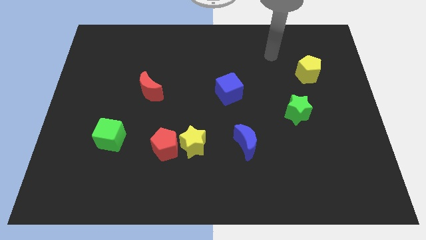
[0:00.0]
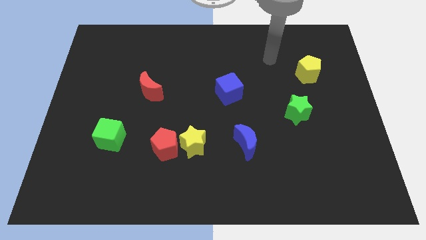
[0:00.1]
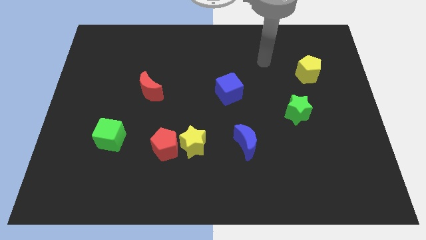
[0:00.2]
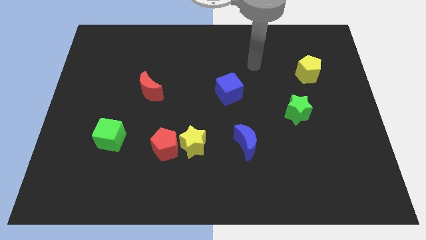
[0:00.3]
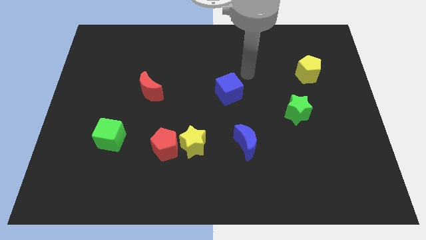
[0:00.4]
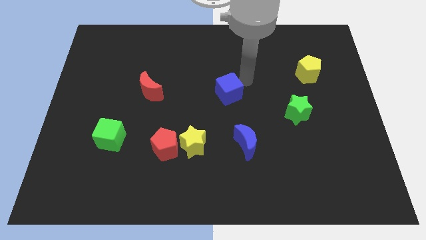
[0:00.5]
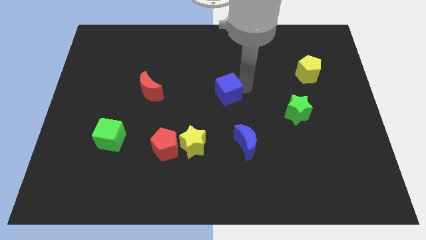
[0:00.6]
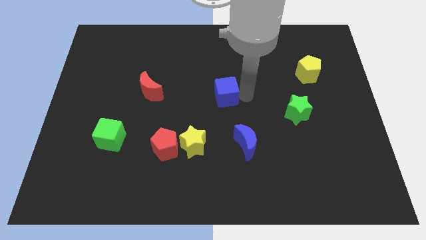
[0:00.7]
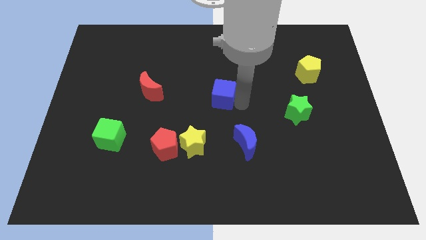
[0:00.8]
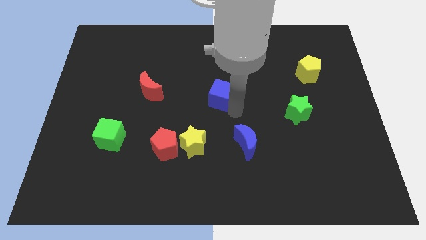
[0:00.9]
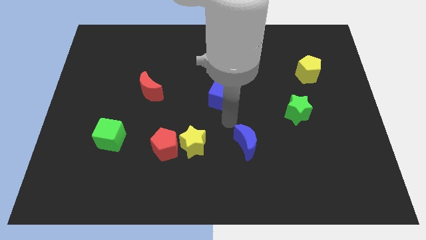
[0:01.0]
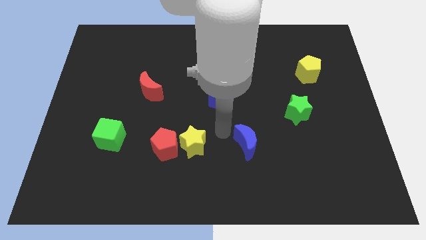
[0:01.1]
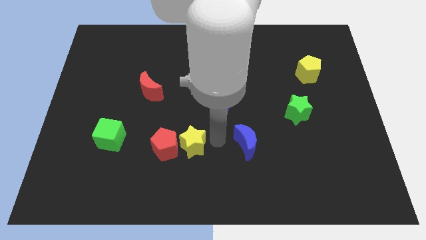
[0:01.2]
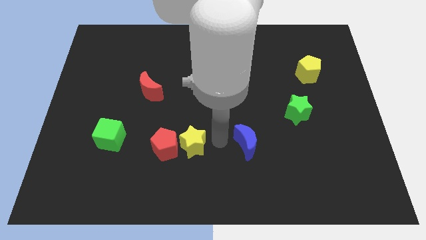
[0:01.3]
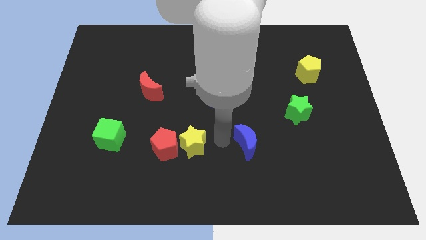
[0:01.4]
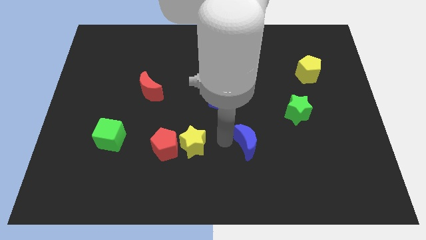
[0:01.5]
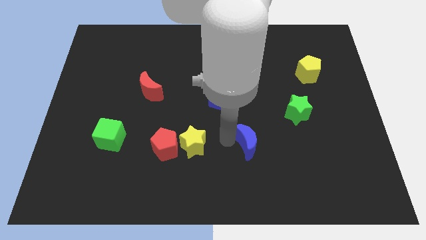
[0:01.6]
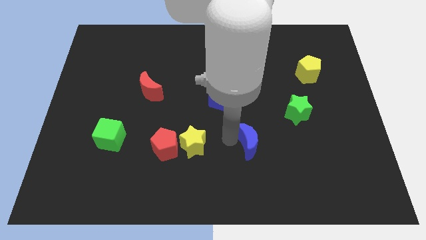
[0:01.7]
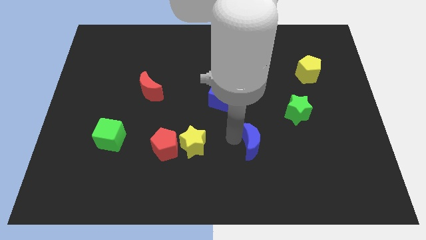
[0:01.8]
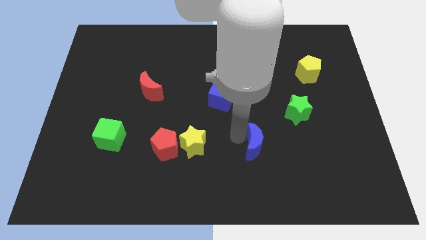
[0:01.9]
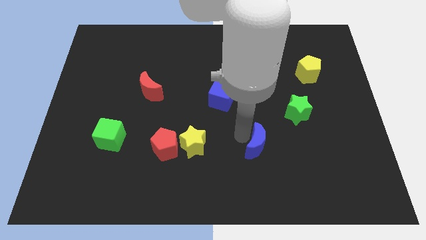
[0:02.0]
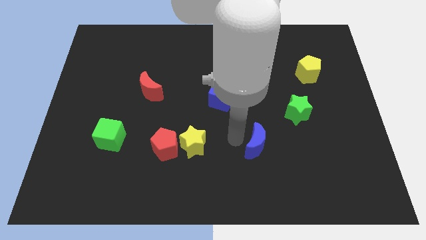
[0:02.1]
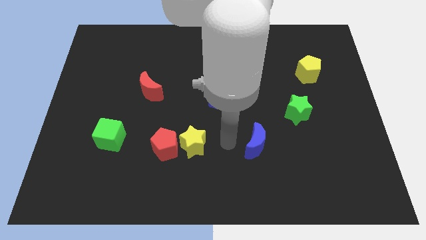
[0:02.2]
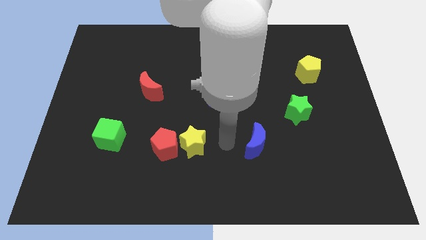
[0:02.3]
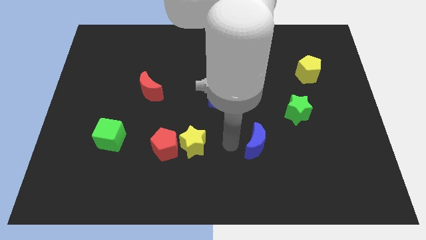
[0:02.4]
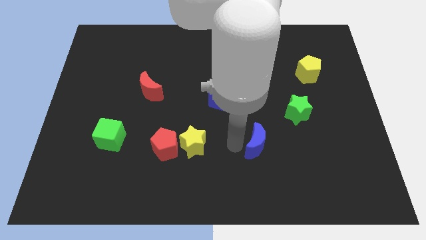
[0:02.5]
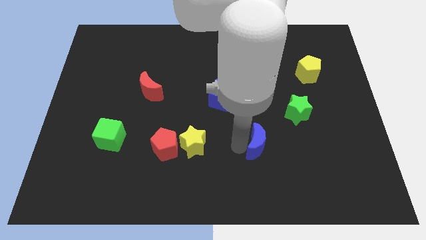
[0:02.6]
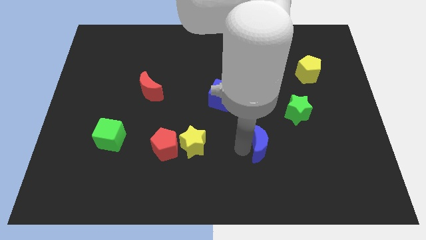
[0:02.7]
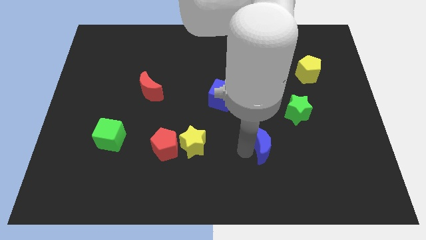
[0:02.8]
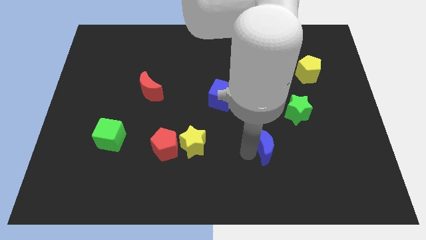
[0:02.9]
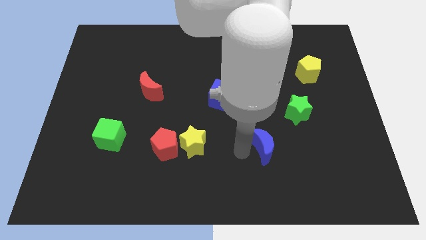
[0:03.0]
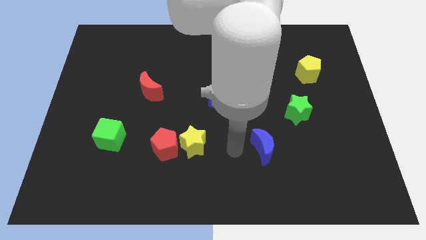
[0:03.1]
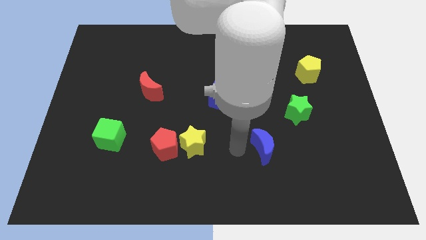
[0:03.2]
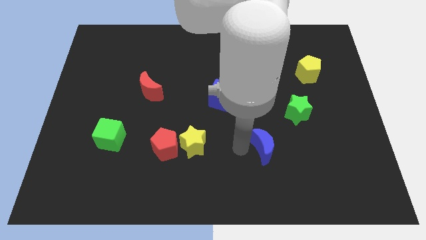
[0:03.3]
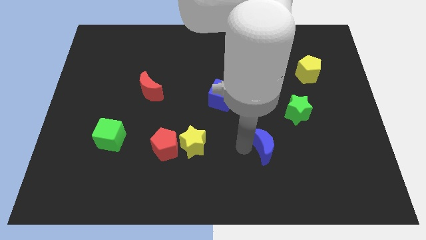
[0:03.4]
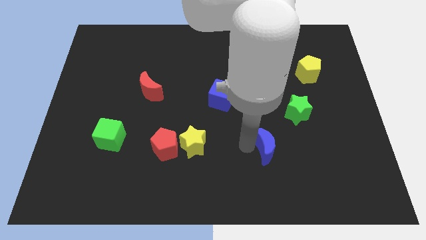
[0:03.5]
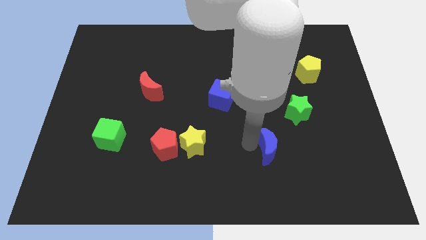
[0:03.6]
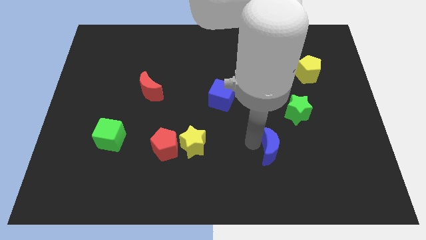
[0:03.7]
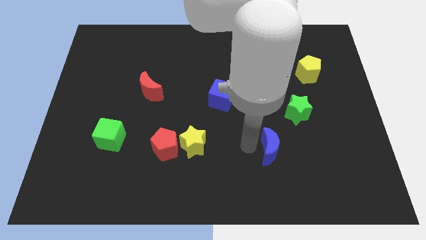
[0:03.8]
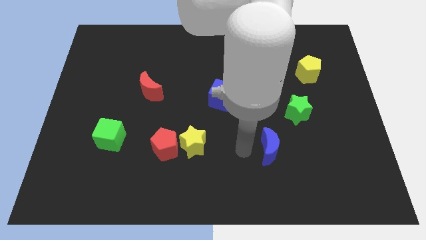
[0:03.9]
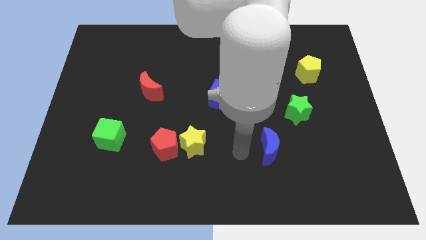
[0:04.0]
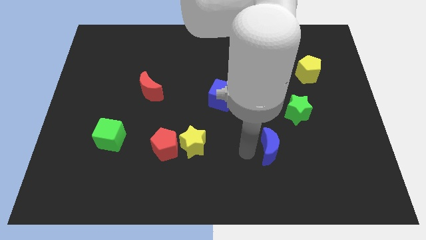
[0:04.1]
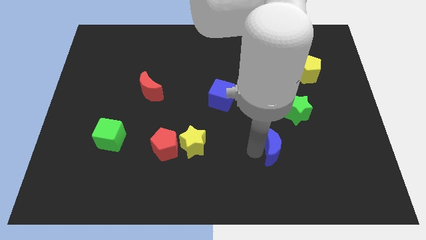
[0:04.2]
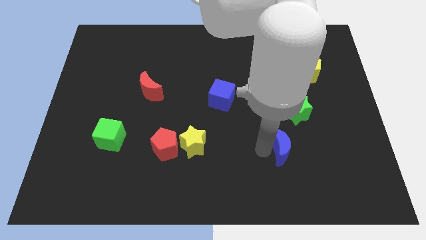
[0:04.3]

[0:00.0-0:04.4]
slightly push the blue moon right

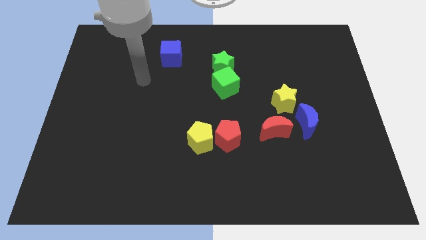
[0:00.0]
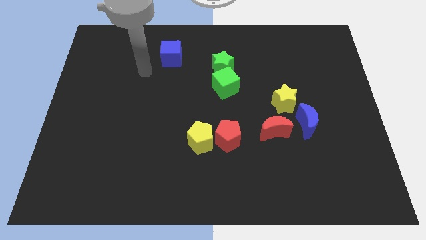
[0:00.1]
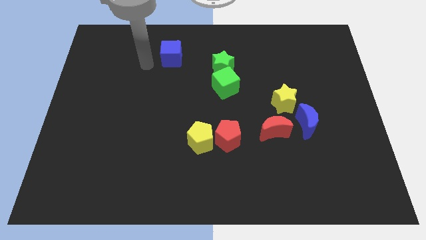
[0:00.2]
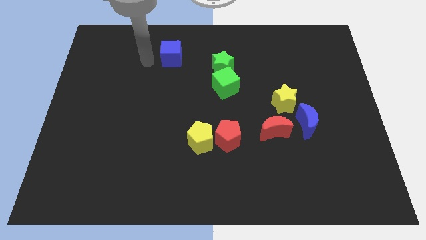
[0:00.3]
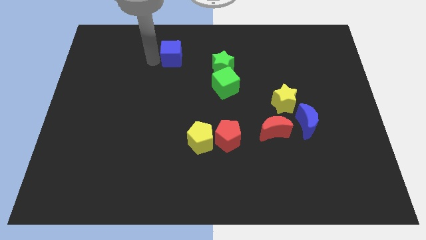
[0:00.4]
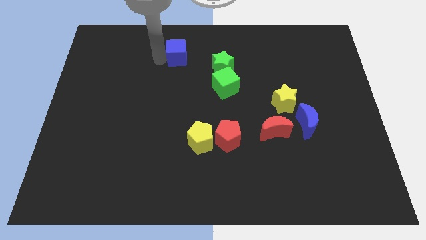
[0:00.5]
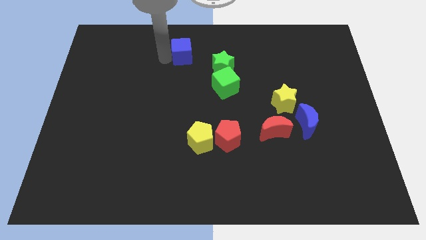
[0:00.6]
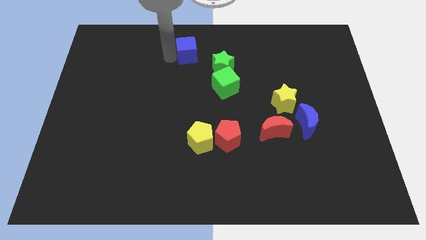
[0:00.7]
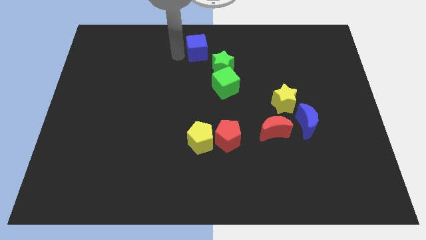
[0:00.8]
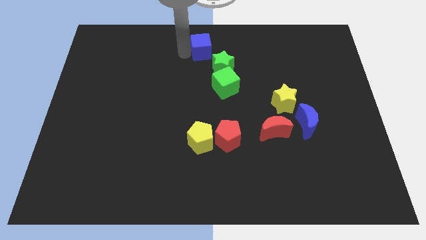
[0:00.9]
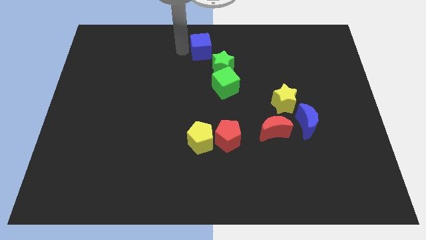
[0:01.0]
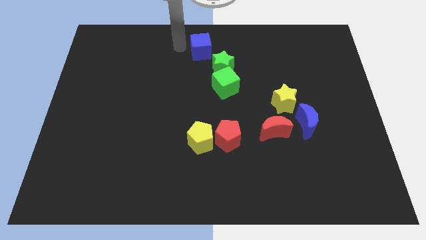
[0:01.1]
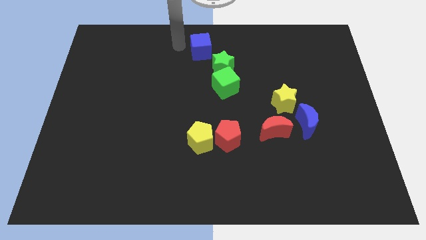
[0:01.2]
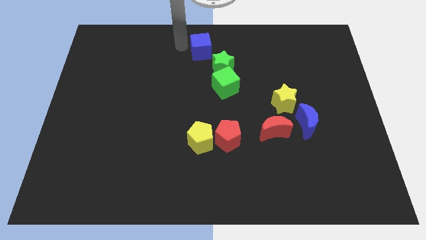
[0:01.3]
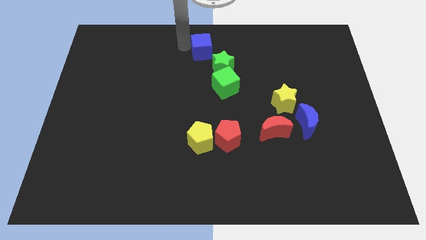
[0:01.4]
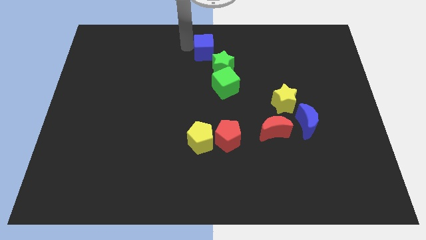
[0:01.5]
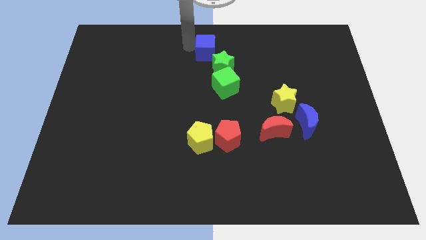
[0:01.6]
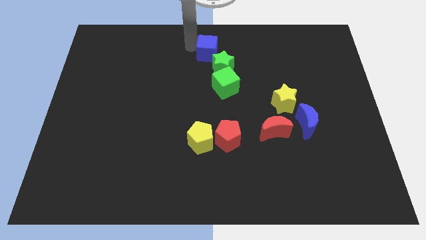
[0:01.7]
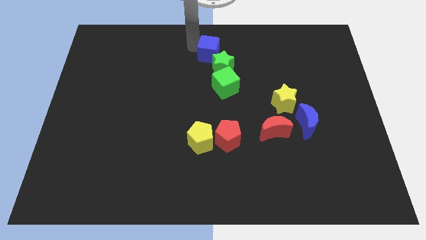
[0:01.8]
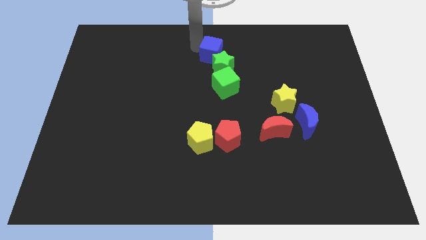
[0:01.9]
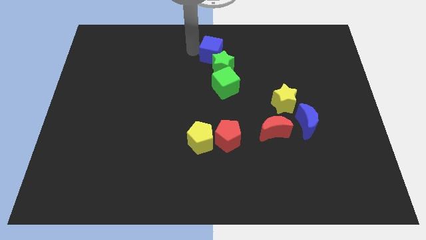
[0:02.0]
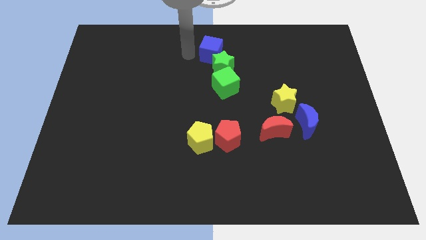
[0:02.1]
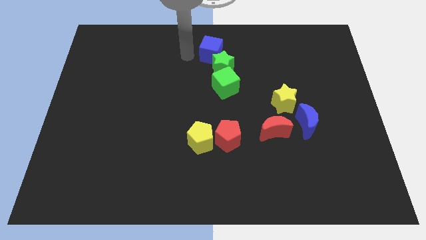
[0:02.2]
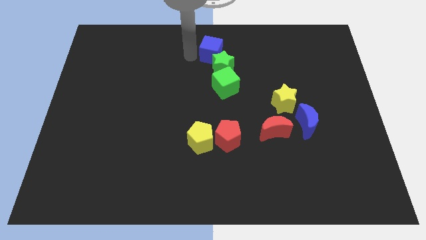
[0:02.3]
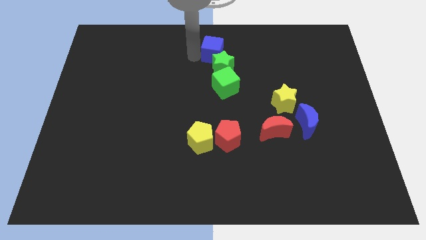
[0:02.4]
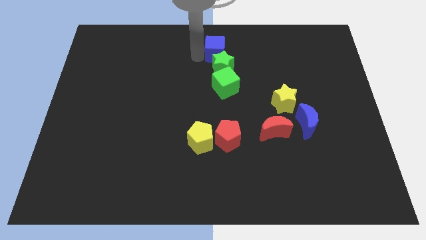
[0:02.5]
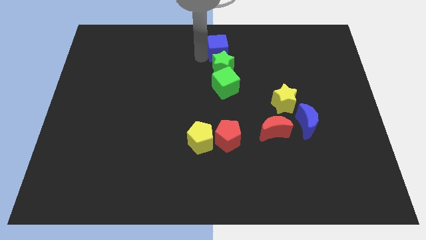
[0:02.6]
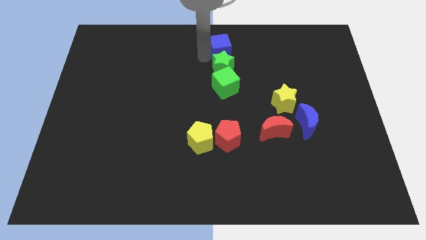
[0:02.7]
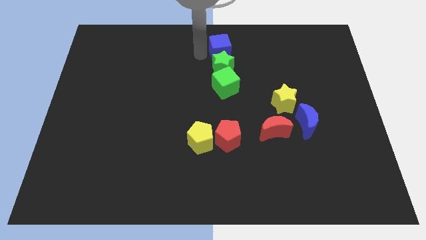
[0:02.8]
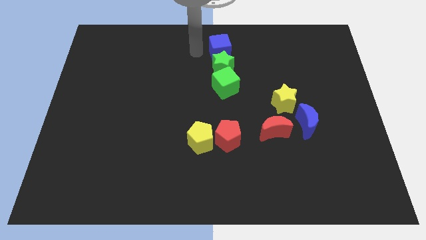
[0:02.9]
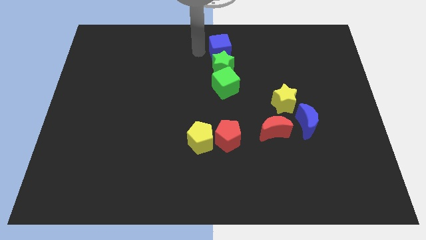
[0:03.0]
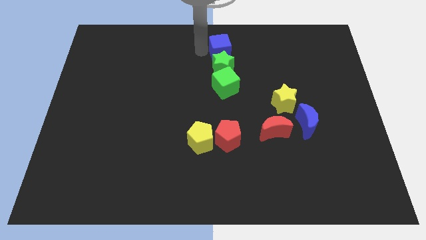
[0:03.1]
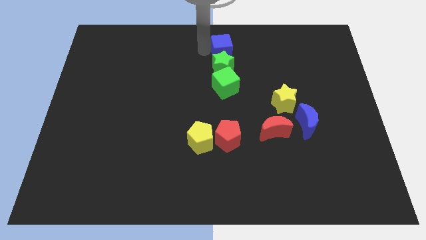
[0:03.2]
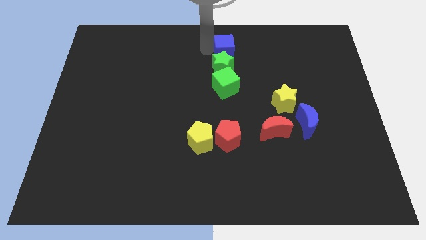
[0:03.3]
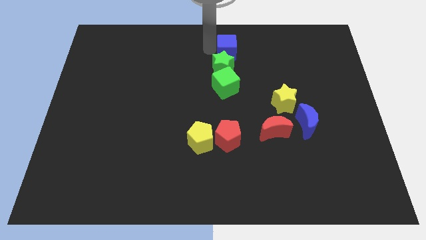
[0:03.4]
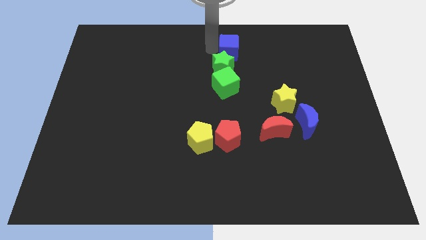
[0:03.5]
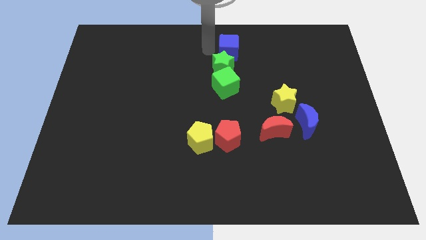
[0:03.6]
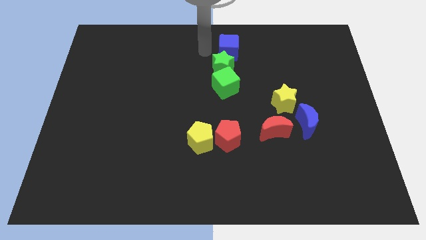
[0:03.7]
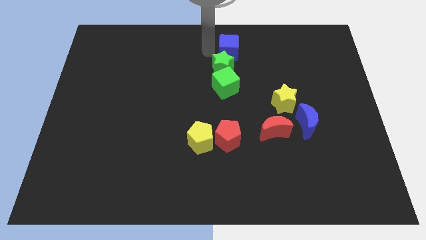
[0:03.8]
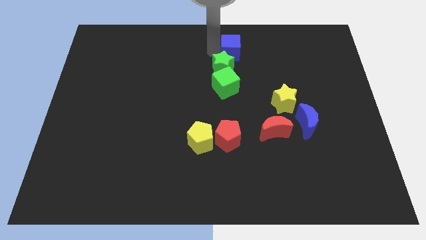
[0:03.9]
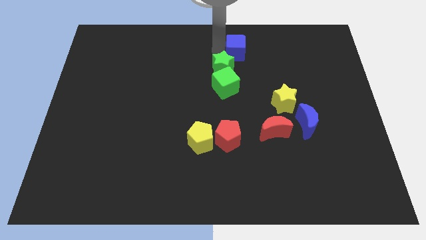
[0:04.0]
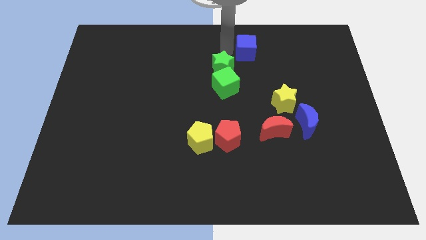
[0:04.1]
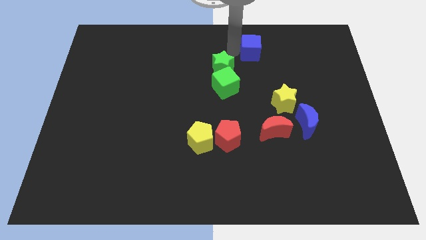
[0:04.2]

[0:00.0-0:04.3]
move the blue cube right
